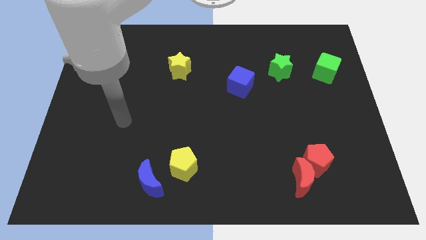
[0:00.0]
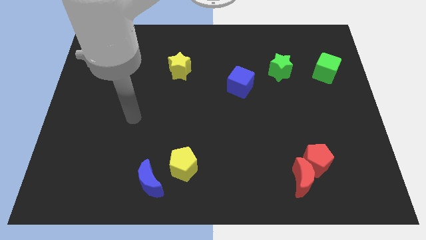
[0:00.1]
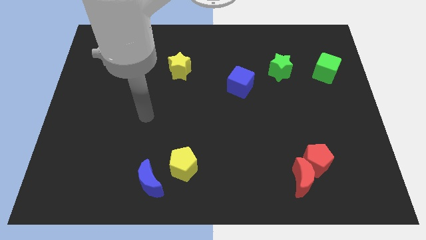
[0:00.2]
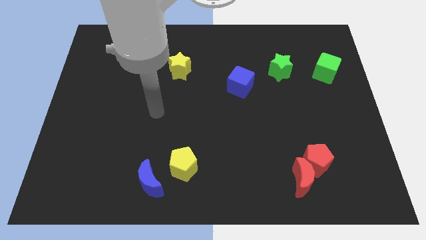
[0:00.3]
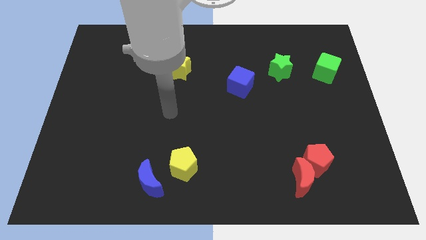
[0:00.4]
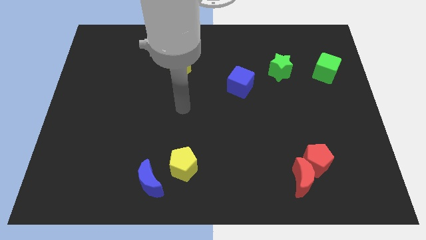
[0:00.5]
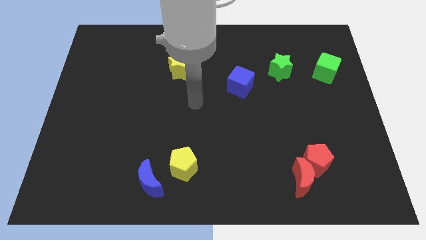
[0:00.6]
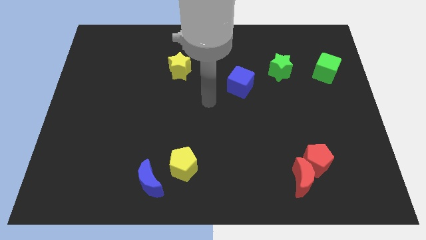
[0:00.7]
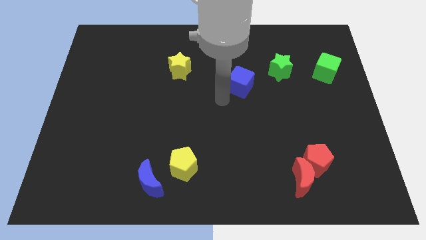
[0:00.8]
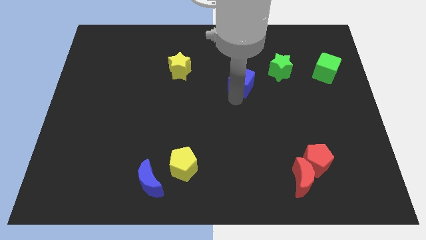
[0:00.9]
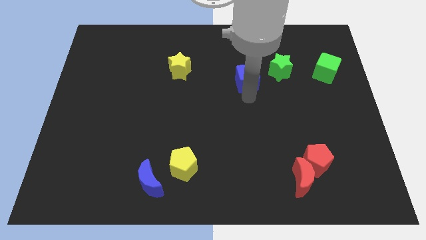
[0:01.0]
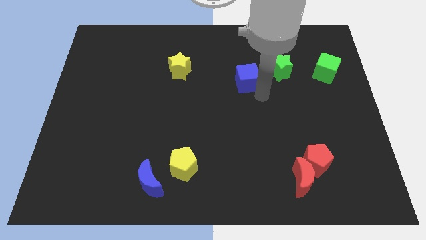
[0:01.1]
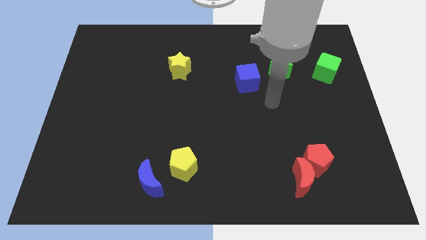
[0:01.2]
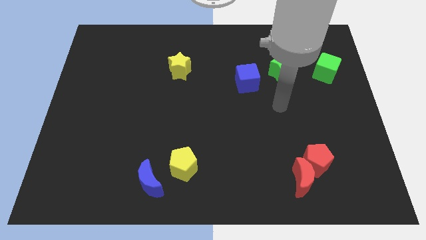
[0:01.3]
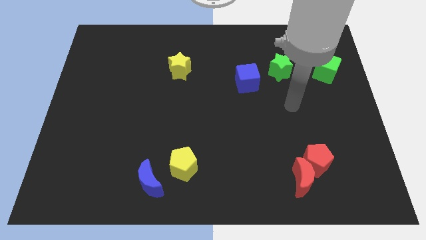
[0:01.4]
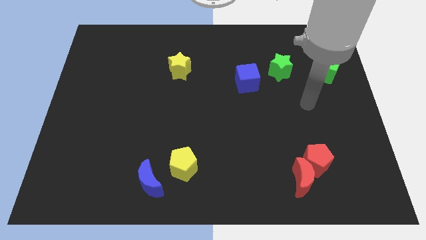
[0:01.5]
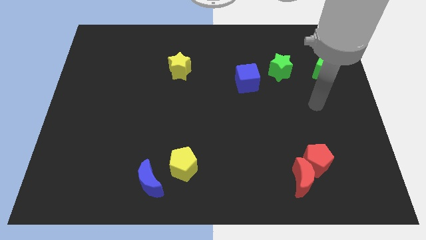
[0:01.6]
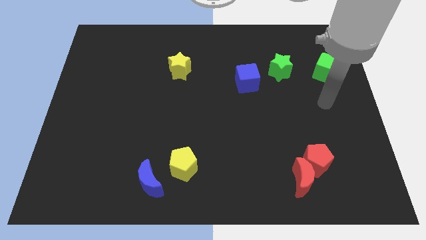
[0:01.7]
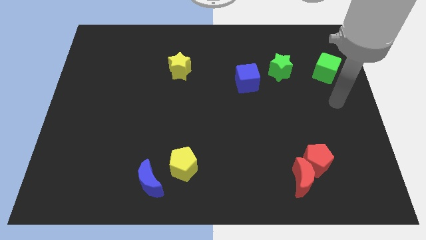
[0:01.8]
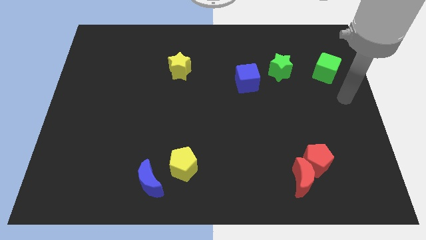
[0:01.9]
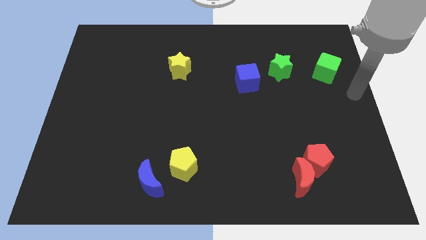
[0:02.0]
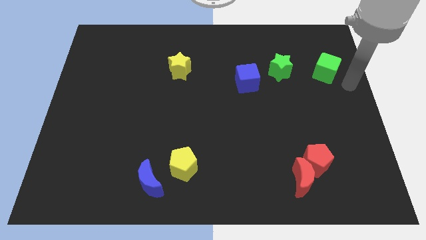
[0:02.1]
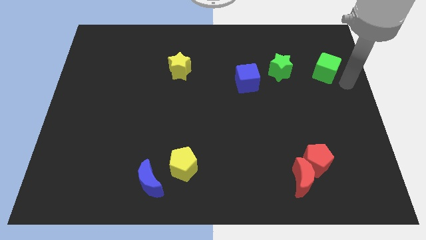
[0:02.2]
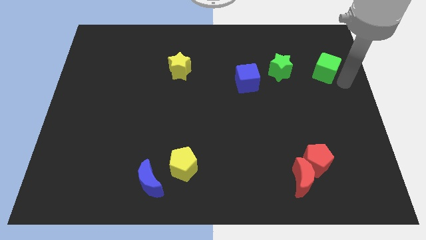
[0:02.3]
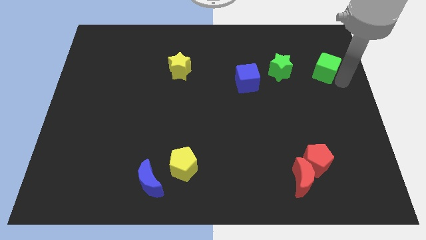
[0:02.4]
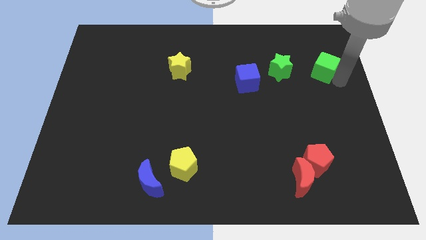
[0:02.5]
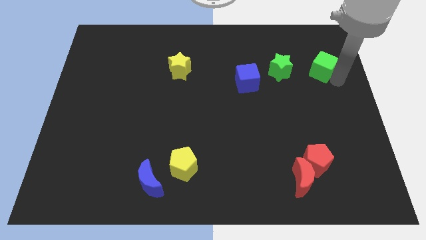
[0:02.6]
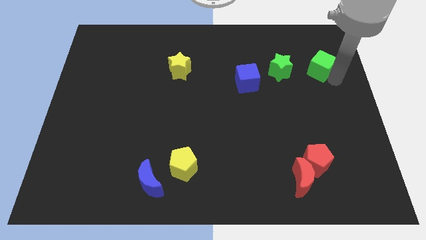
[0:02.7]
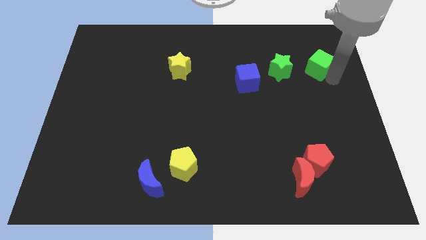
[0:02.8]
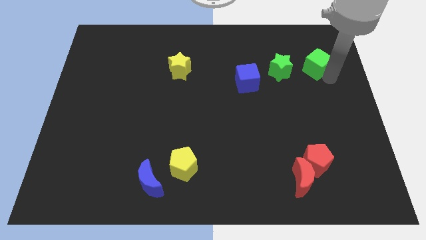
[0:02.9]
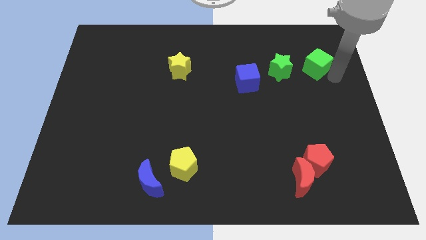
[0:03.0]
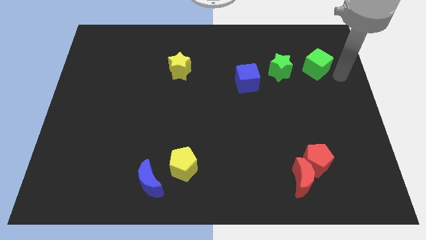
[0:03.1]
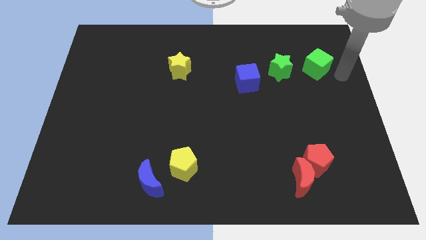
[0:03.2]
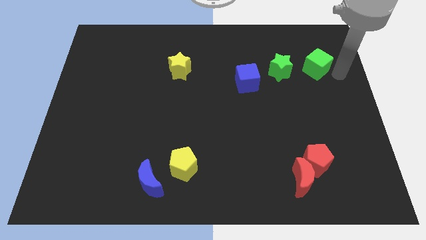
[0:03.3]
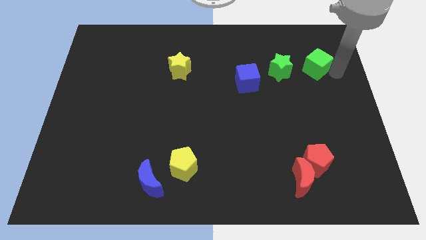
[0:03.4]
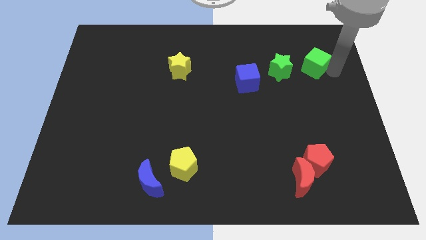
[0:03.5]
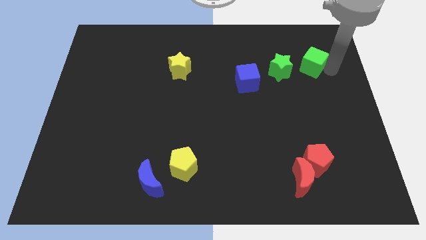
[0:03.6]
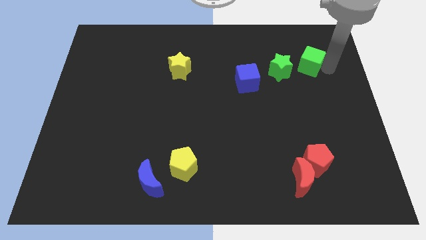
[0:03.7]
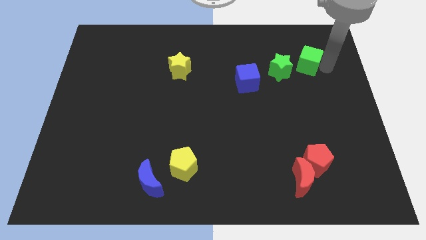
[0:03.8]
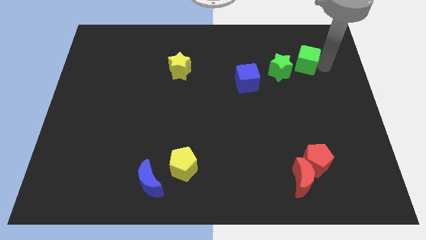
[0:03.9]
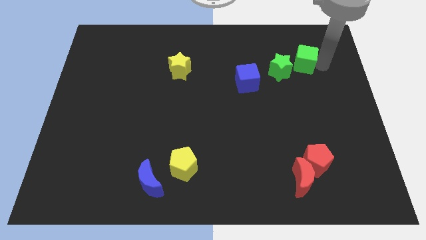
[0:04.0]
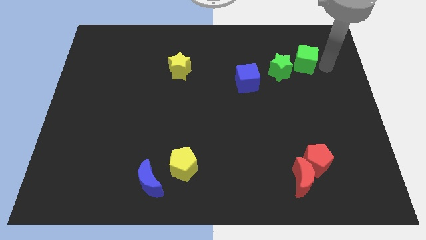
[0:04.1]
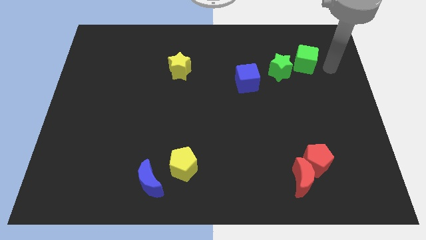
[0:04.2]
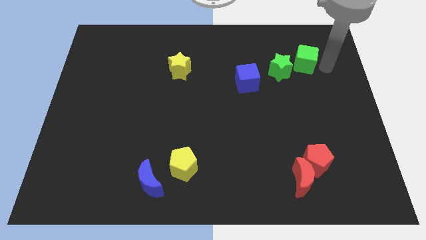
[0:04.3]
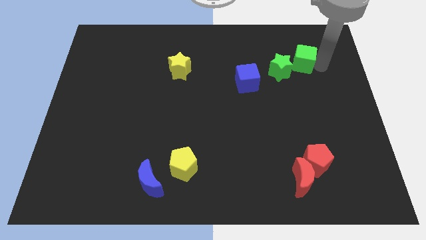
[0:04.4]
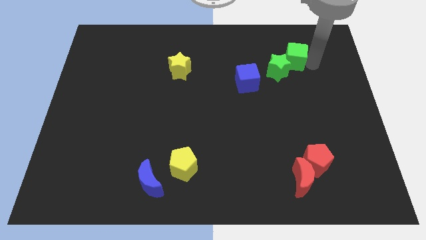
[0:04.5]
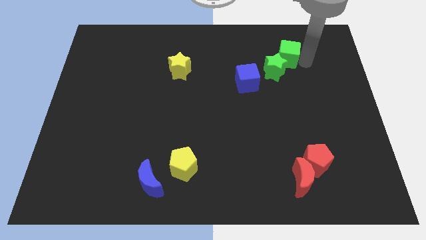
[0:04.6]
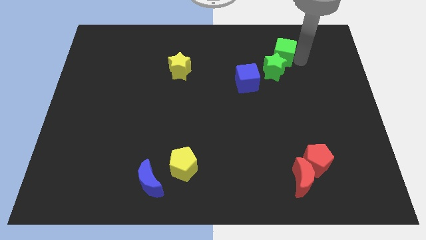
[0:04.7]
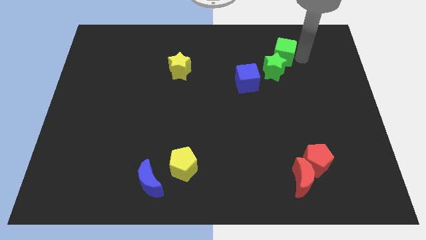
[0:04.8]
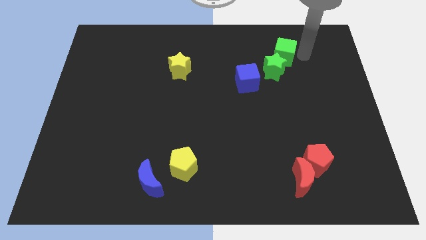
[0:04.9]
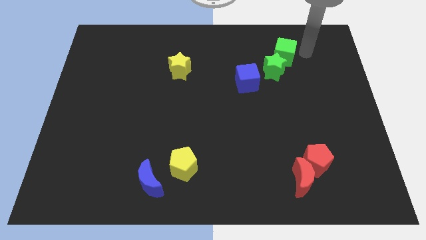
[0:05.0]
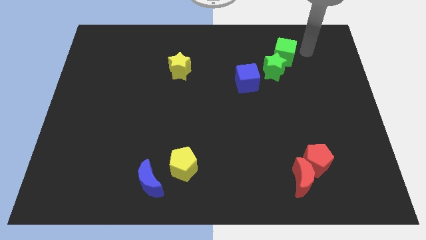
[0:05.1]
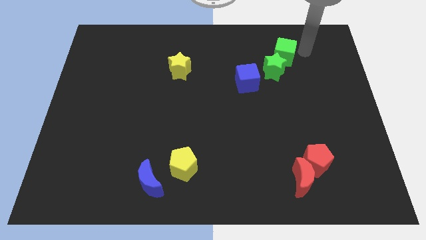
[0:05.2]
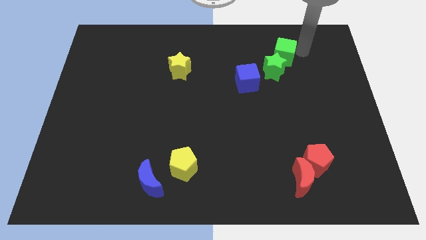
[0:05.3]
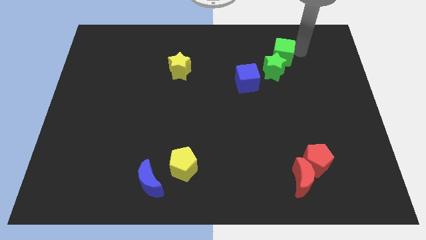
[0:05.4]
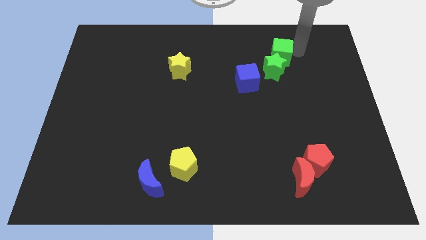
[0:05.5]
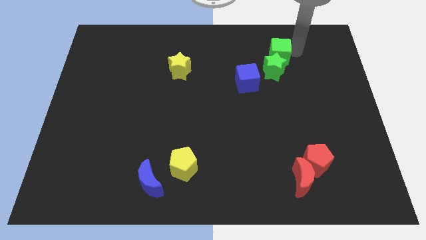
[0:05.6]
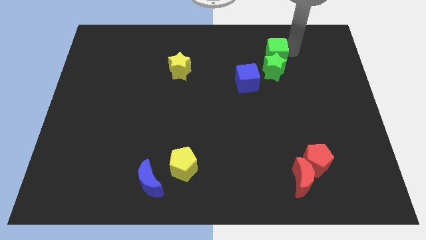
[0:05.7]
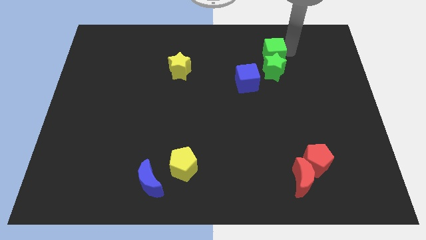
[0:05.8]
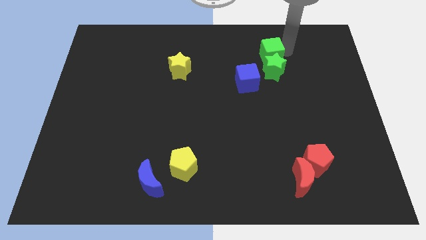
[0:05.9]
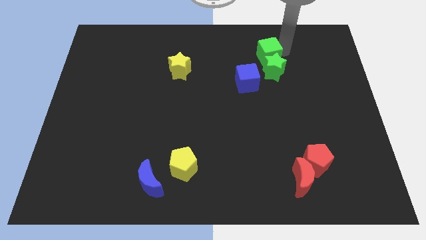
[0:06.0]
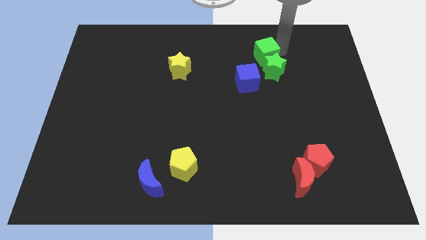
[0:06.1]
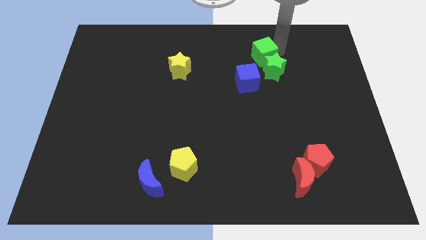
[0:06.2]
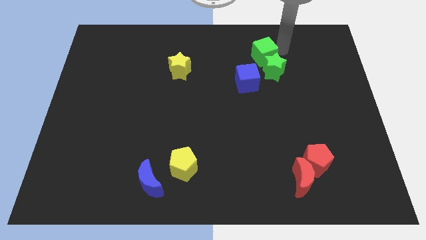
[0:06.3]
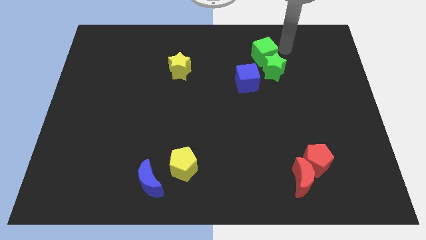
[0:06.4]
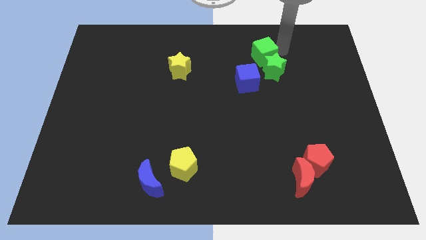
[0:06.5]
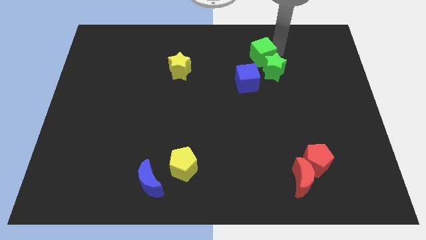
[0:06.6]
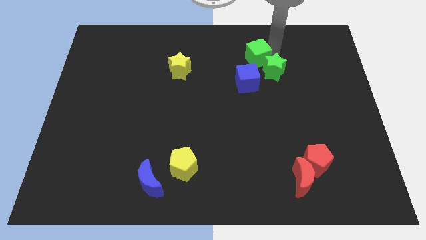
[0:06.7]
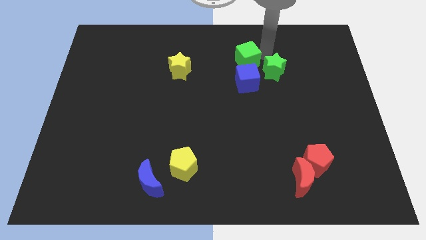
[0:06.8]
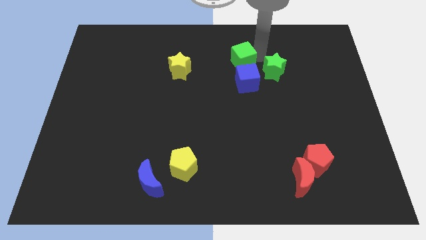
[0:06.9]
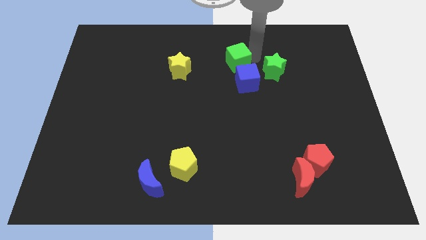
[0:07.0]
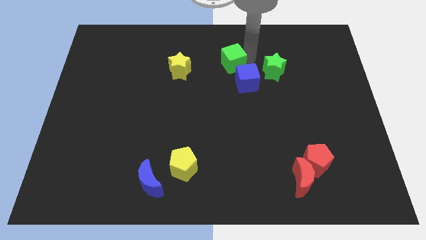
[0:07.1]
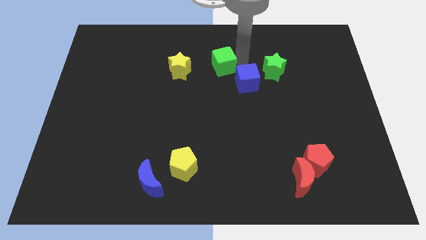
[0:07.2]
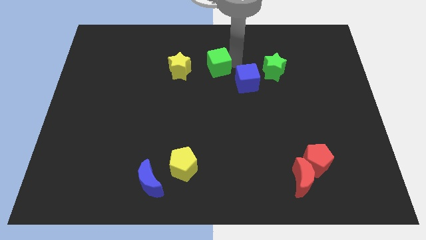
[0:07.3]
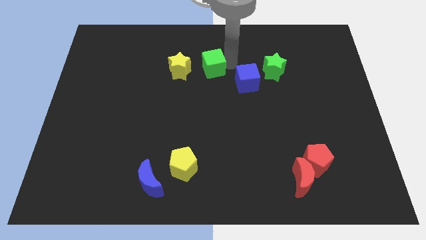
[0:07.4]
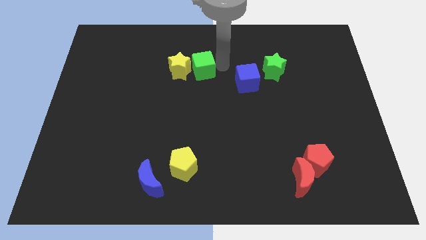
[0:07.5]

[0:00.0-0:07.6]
move the green cube to the yellow star

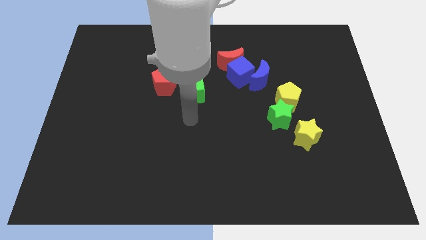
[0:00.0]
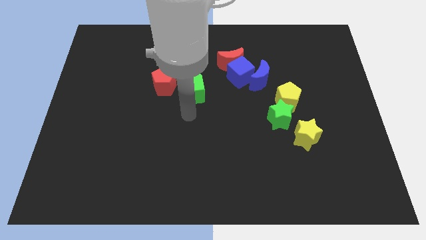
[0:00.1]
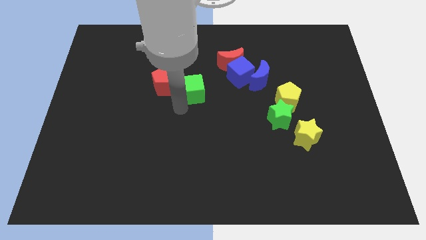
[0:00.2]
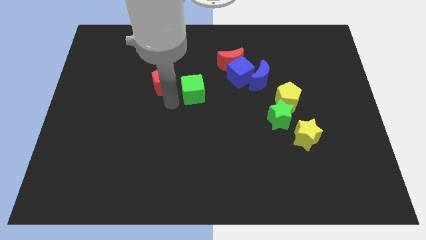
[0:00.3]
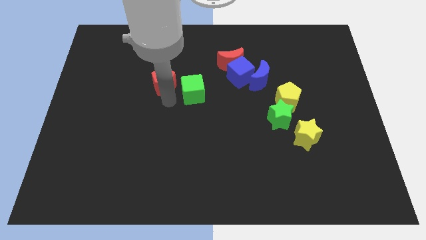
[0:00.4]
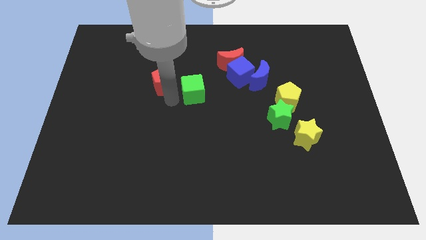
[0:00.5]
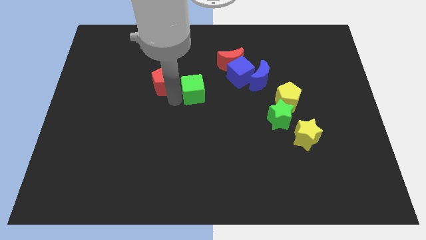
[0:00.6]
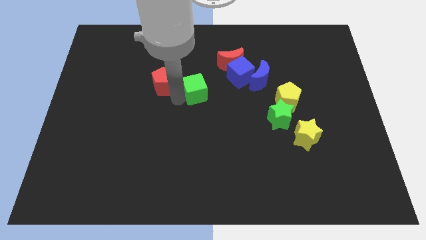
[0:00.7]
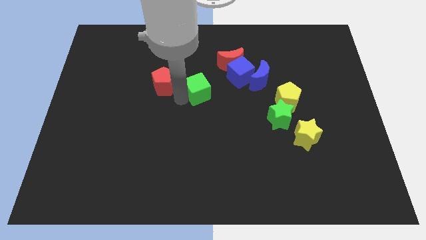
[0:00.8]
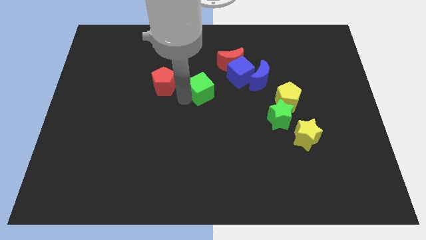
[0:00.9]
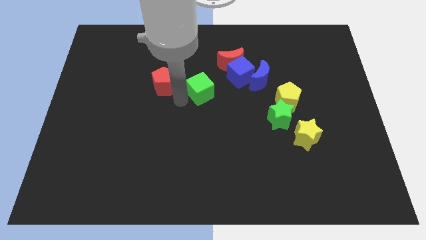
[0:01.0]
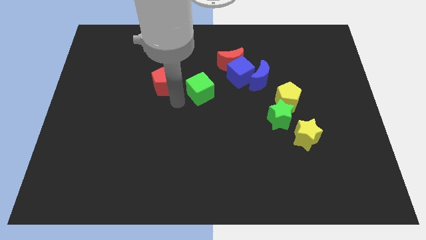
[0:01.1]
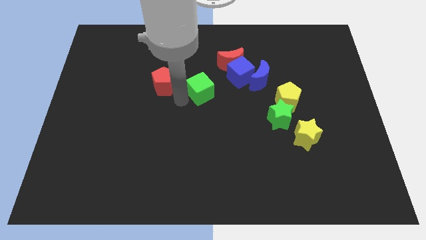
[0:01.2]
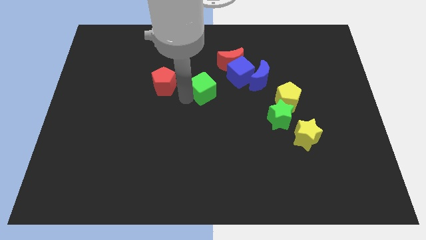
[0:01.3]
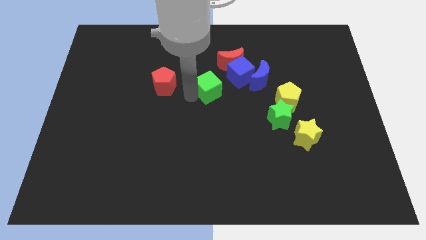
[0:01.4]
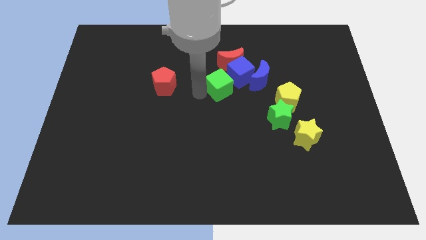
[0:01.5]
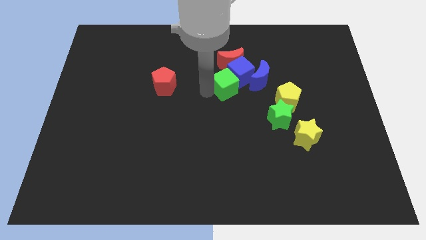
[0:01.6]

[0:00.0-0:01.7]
slide the green cube next to the blue cube
